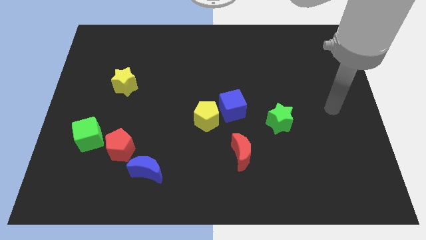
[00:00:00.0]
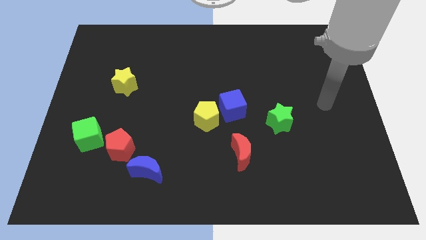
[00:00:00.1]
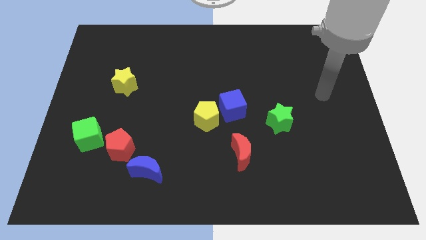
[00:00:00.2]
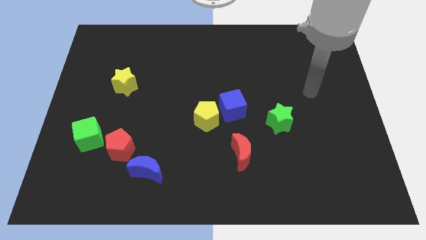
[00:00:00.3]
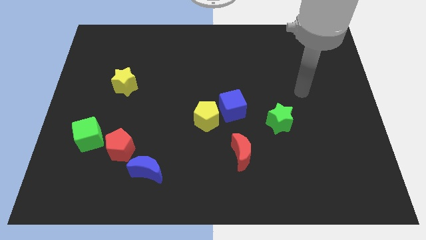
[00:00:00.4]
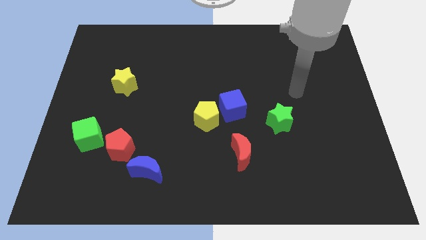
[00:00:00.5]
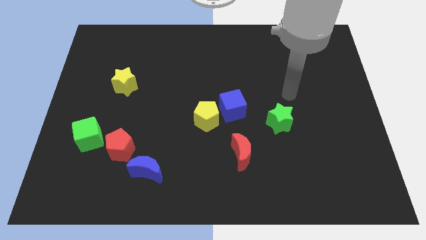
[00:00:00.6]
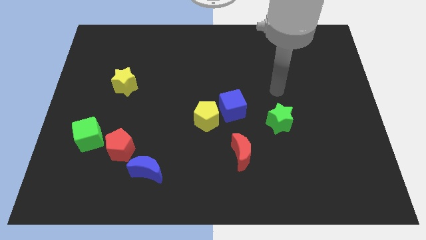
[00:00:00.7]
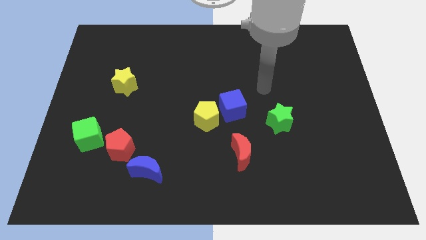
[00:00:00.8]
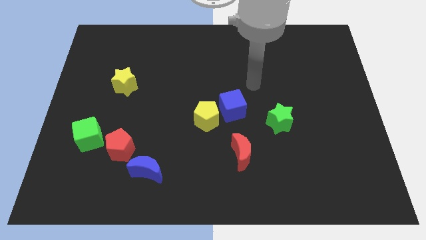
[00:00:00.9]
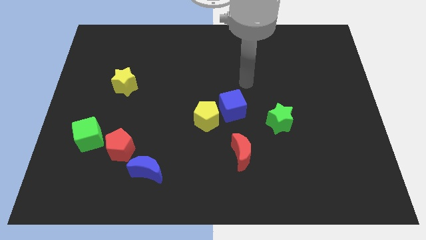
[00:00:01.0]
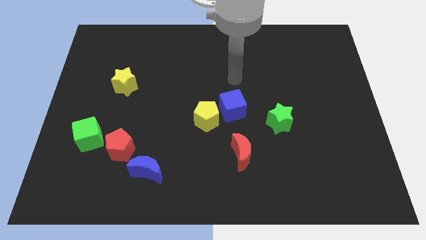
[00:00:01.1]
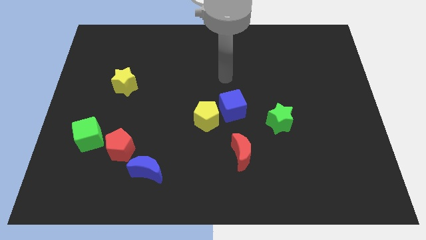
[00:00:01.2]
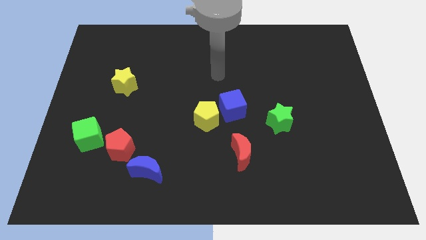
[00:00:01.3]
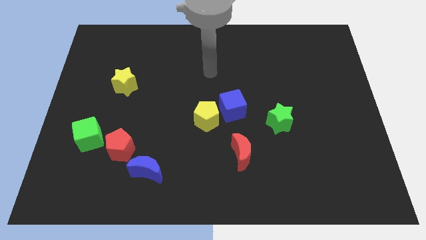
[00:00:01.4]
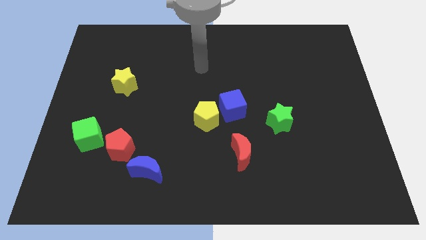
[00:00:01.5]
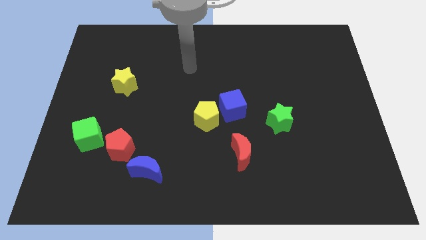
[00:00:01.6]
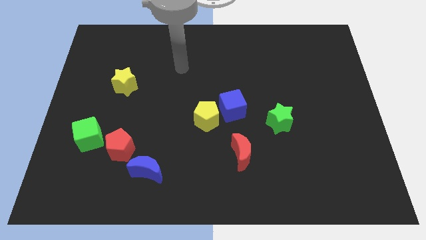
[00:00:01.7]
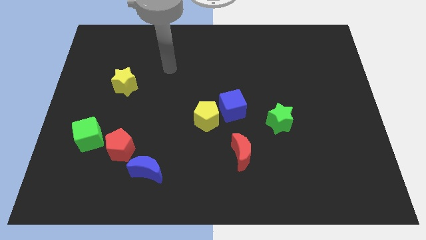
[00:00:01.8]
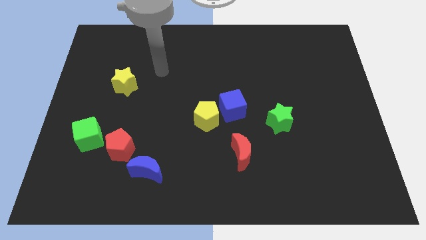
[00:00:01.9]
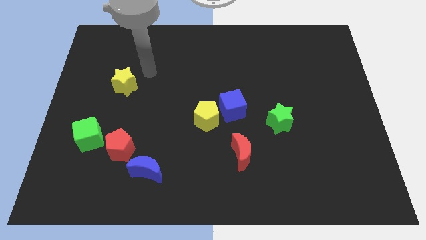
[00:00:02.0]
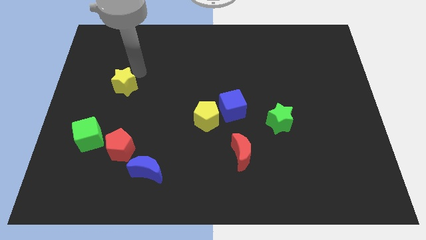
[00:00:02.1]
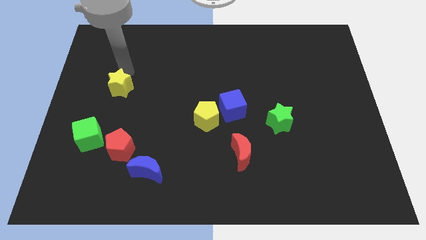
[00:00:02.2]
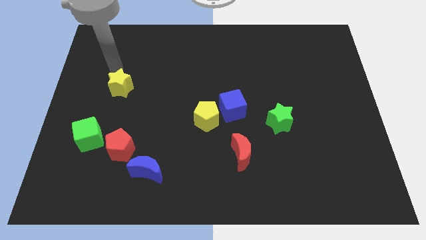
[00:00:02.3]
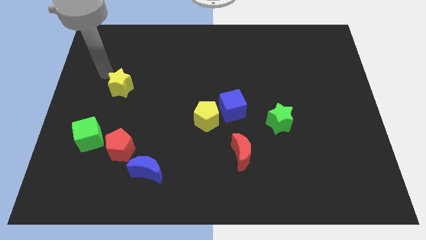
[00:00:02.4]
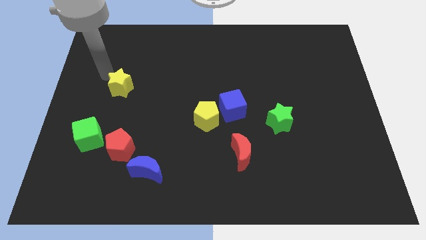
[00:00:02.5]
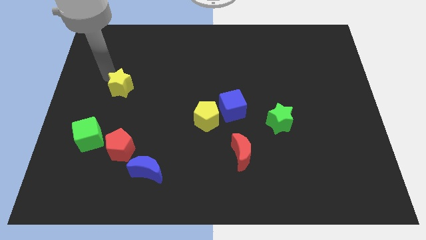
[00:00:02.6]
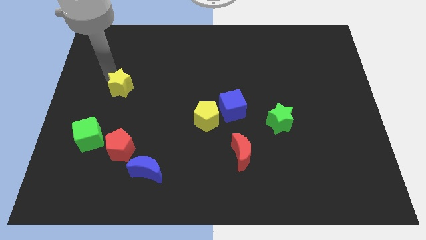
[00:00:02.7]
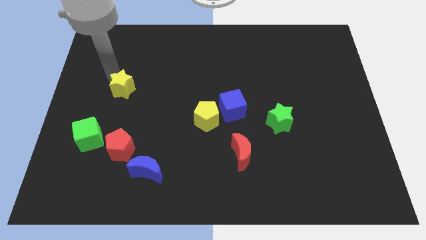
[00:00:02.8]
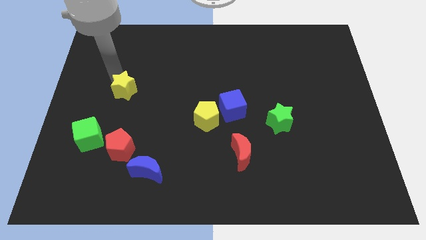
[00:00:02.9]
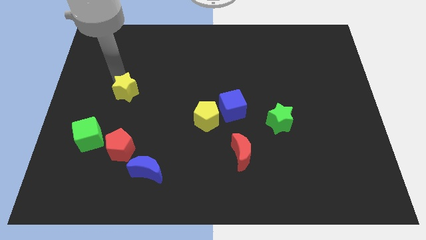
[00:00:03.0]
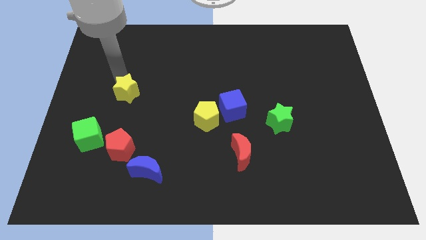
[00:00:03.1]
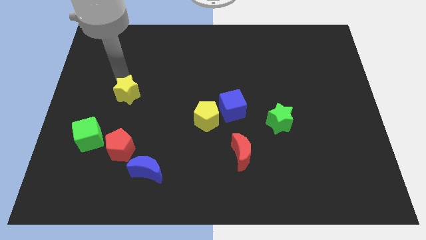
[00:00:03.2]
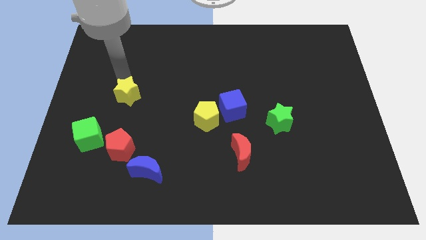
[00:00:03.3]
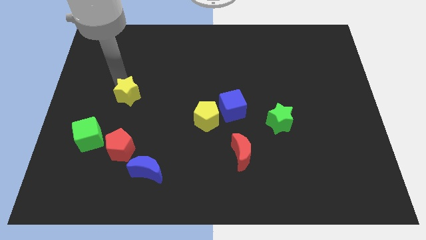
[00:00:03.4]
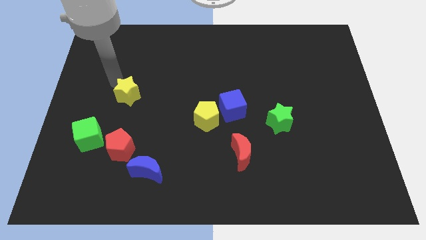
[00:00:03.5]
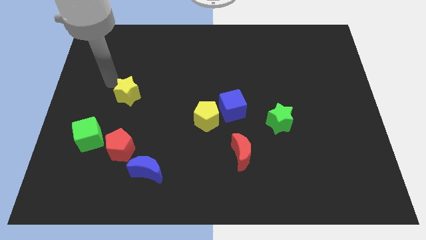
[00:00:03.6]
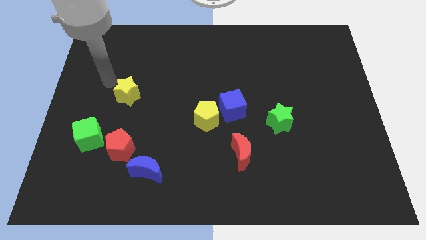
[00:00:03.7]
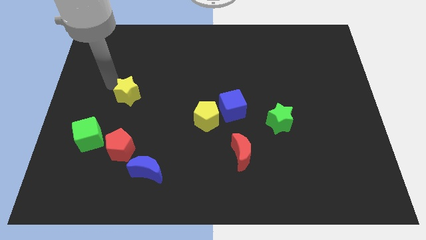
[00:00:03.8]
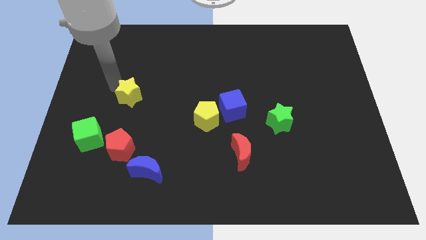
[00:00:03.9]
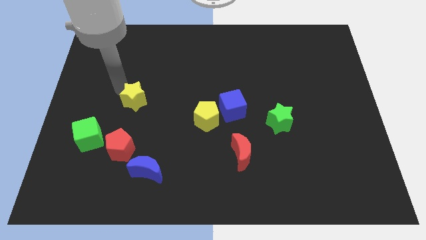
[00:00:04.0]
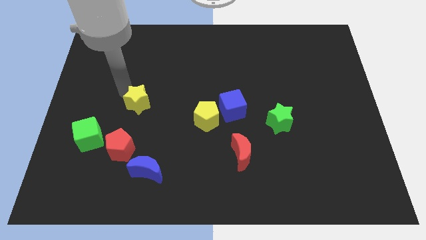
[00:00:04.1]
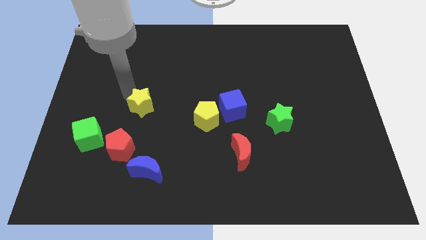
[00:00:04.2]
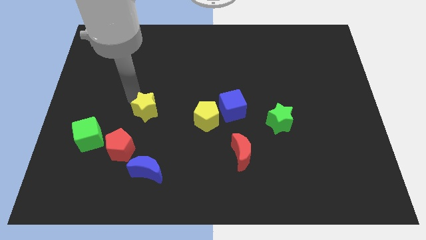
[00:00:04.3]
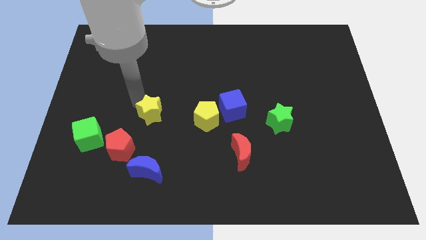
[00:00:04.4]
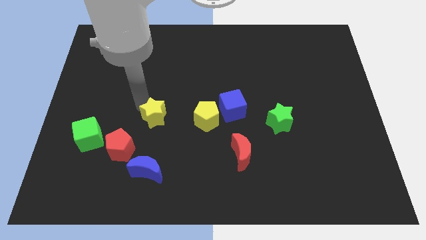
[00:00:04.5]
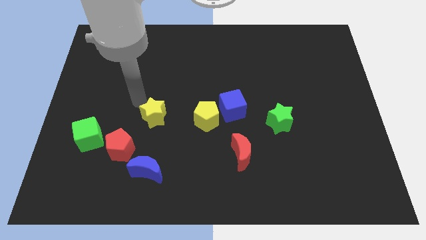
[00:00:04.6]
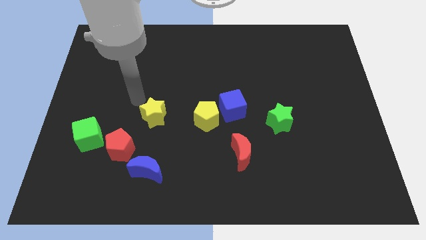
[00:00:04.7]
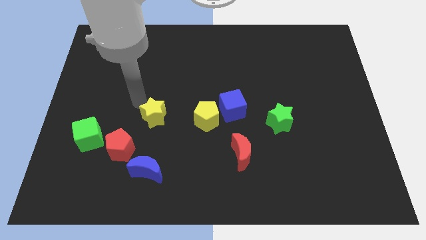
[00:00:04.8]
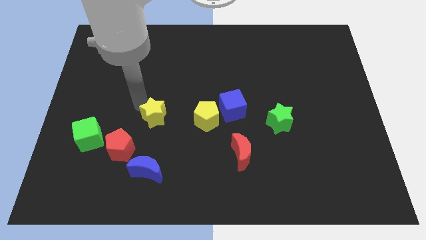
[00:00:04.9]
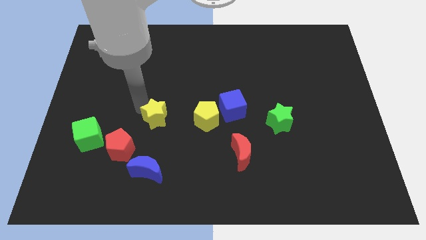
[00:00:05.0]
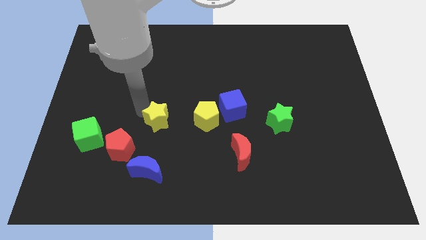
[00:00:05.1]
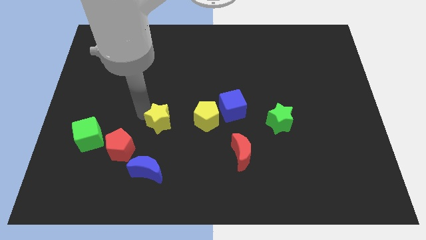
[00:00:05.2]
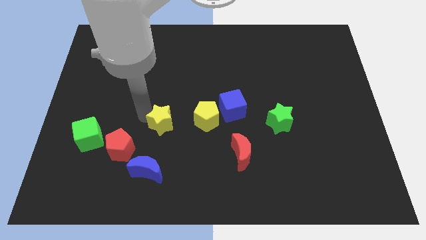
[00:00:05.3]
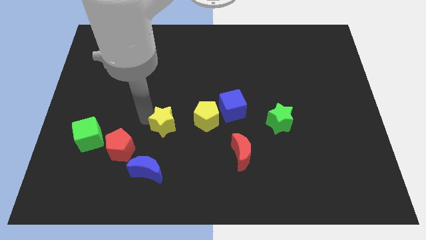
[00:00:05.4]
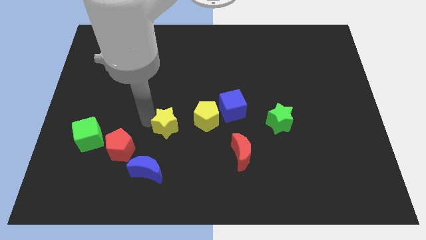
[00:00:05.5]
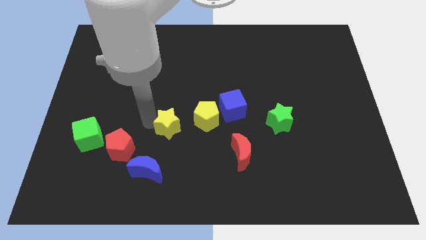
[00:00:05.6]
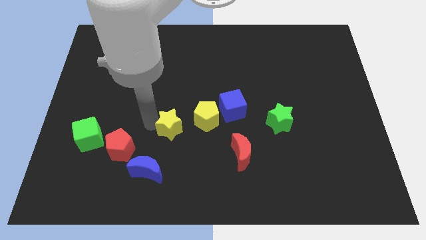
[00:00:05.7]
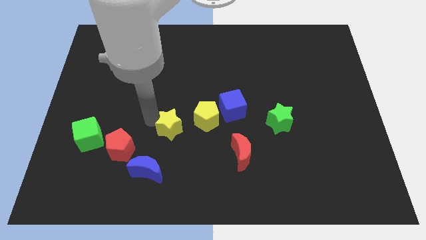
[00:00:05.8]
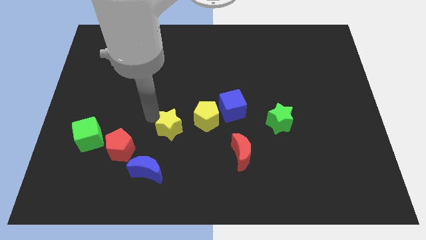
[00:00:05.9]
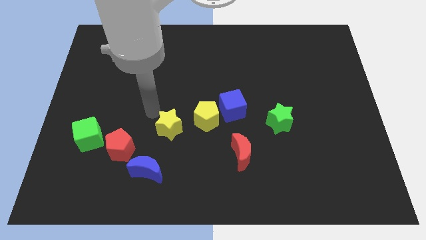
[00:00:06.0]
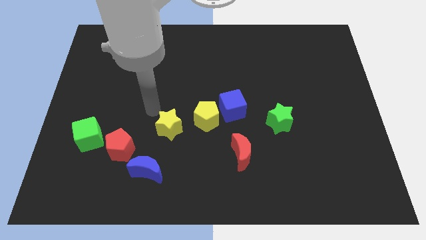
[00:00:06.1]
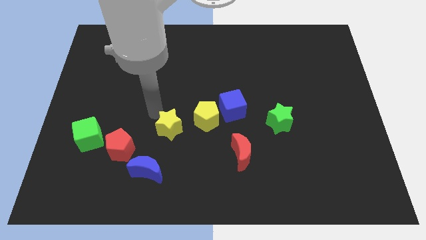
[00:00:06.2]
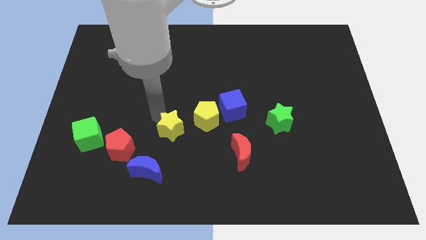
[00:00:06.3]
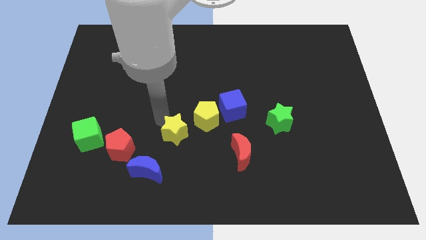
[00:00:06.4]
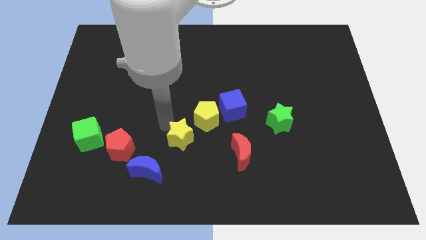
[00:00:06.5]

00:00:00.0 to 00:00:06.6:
move the yellow star downwards and then to the right

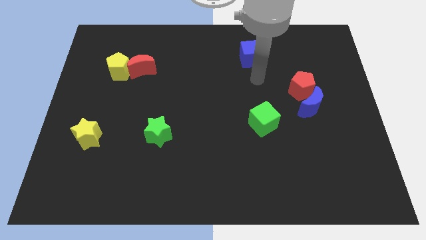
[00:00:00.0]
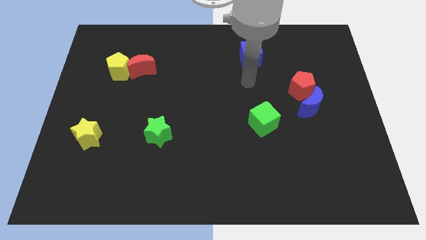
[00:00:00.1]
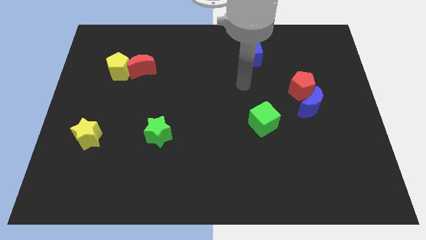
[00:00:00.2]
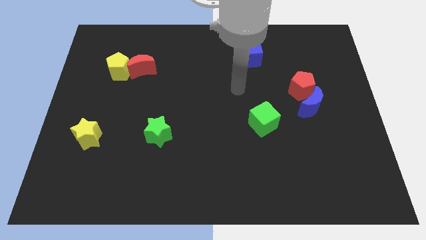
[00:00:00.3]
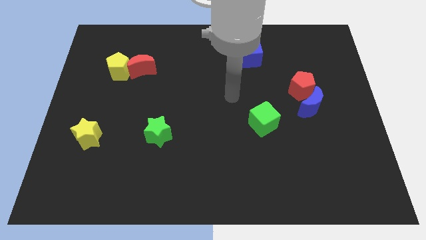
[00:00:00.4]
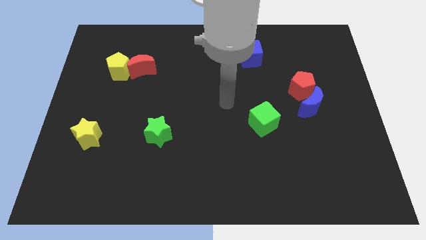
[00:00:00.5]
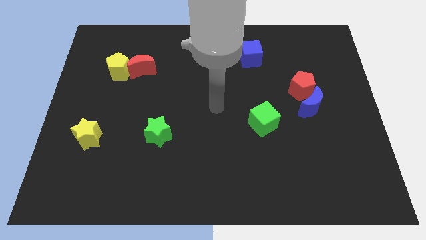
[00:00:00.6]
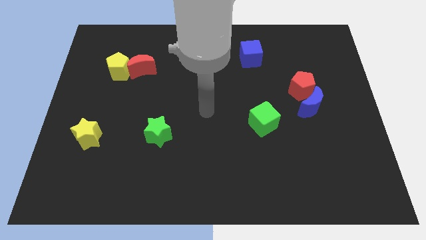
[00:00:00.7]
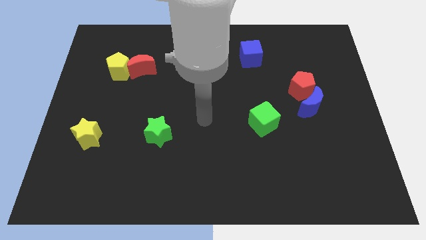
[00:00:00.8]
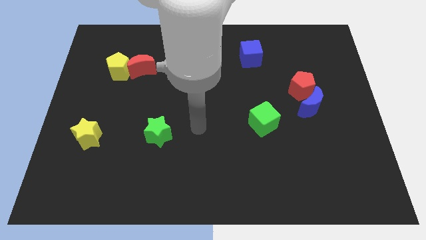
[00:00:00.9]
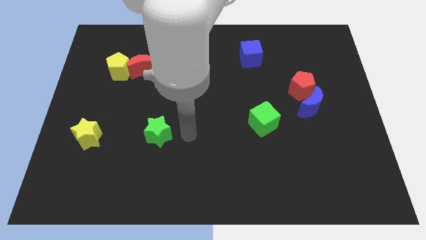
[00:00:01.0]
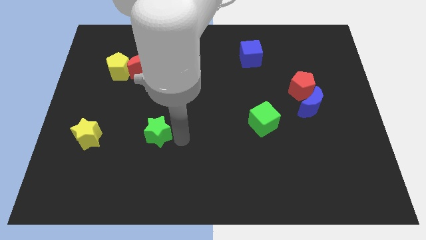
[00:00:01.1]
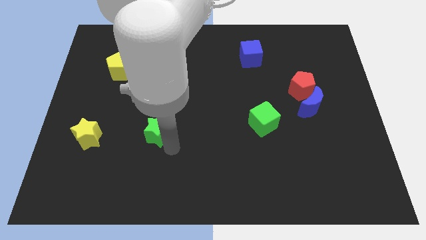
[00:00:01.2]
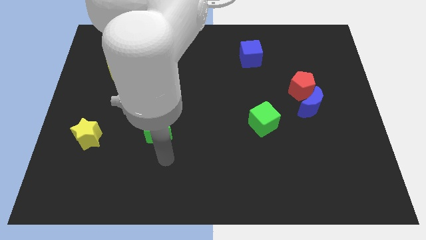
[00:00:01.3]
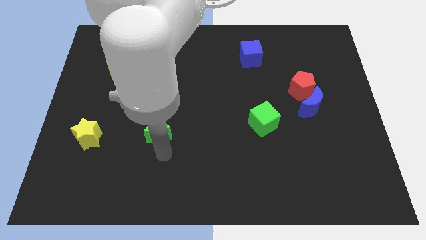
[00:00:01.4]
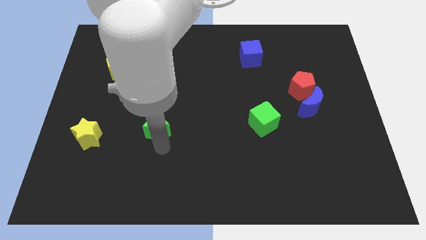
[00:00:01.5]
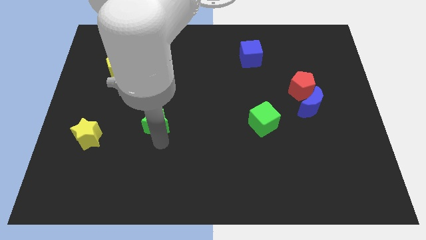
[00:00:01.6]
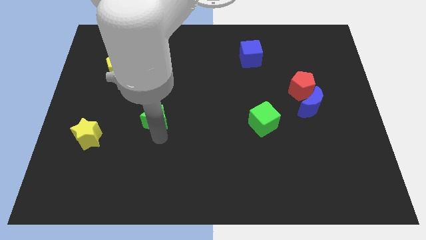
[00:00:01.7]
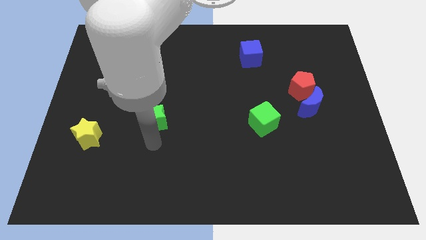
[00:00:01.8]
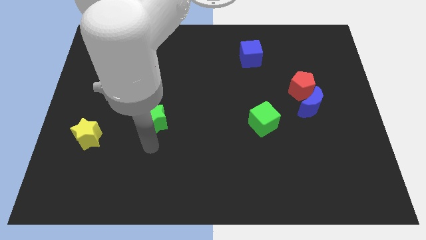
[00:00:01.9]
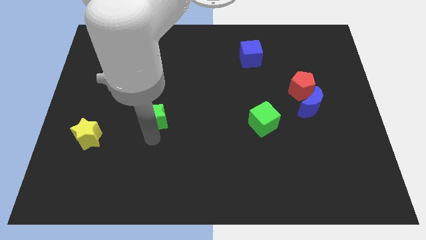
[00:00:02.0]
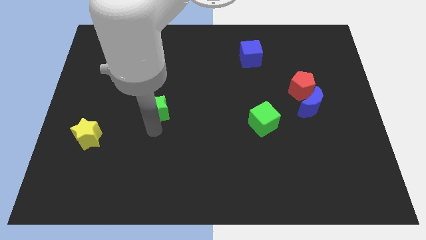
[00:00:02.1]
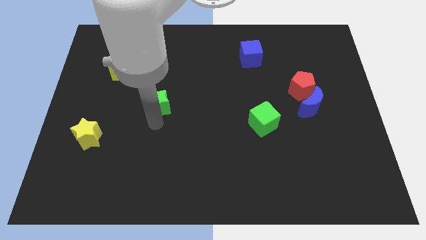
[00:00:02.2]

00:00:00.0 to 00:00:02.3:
slightly move the green star up
